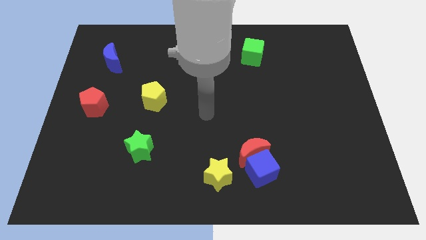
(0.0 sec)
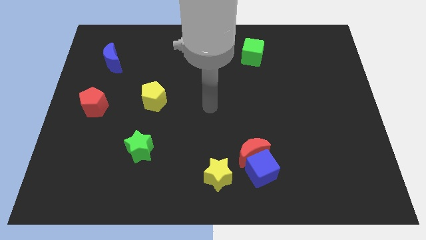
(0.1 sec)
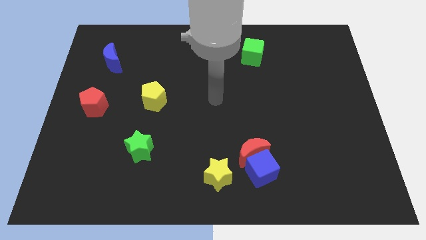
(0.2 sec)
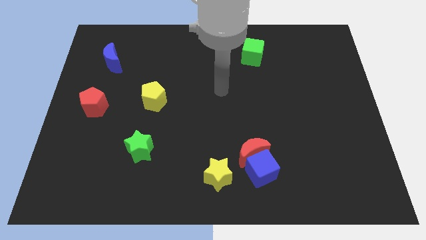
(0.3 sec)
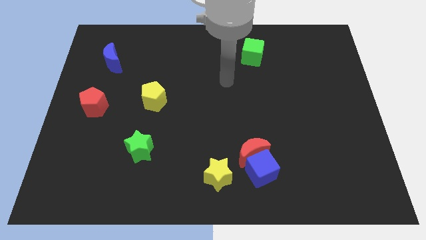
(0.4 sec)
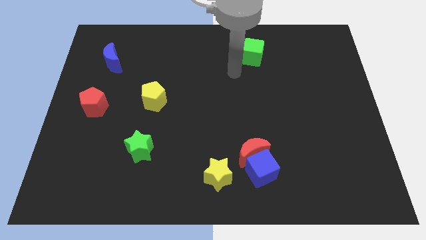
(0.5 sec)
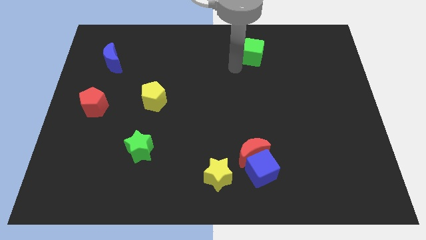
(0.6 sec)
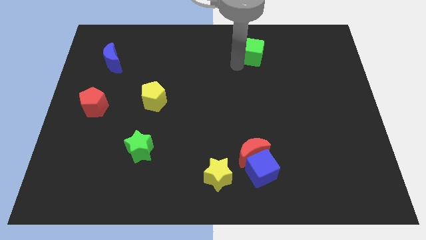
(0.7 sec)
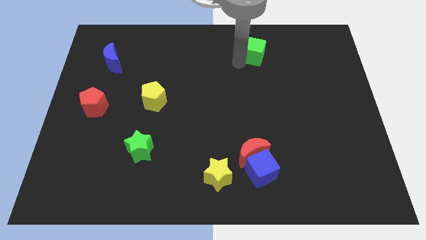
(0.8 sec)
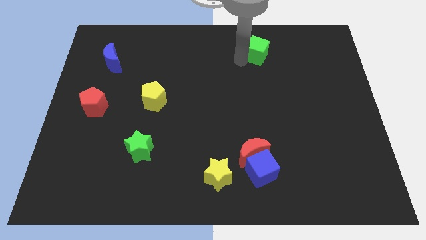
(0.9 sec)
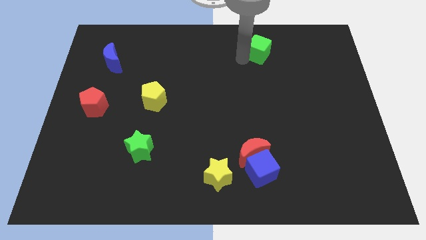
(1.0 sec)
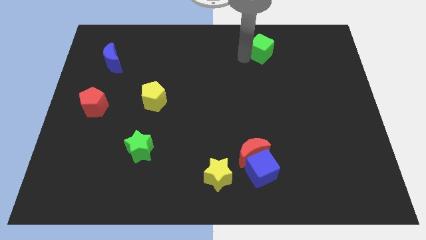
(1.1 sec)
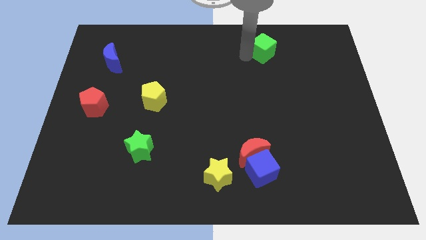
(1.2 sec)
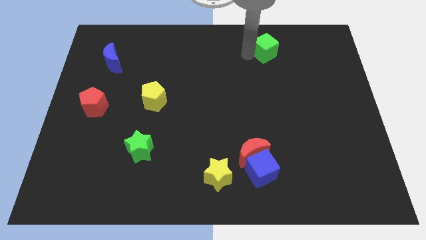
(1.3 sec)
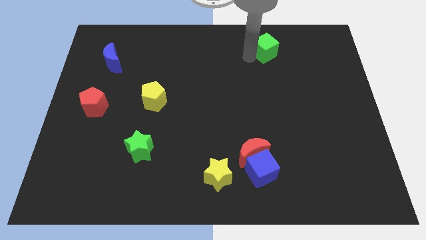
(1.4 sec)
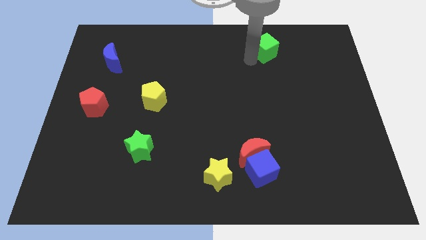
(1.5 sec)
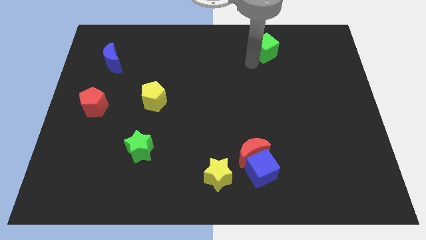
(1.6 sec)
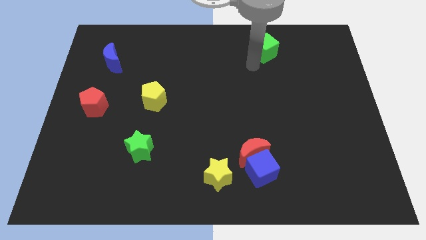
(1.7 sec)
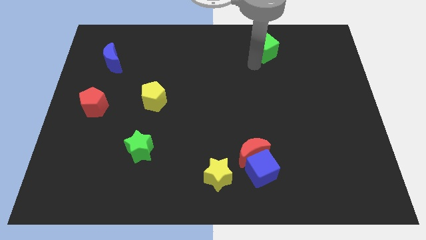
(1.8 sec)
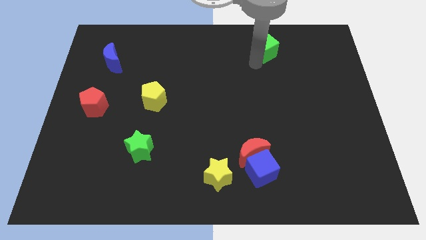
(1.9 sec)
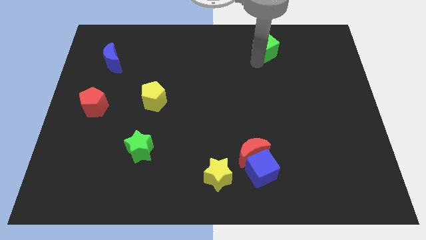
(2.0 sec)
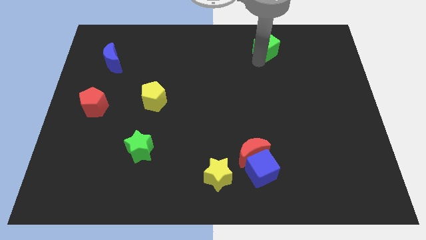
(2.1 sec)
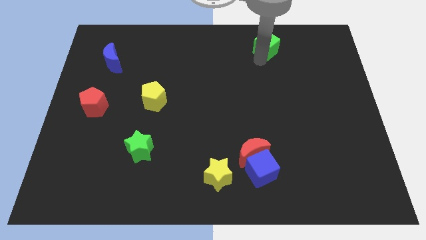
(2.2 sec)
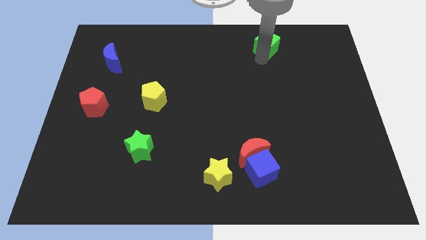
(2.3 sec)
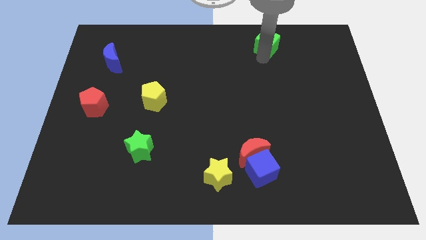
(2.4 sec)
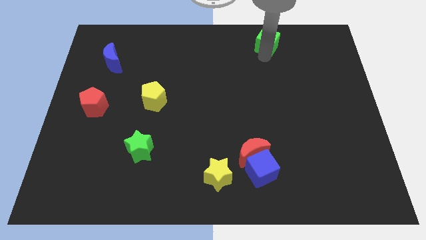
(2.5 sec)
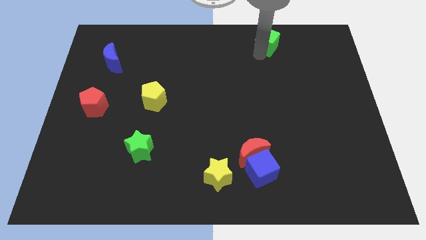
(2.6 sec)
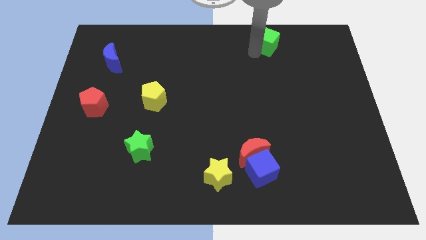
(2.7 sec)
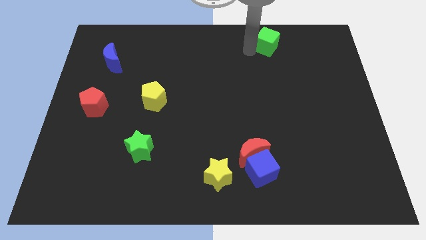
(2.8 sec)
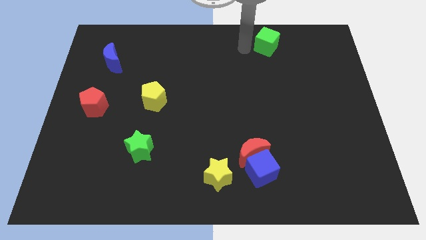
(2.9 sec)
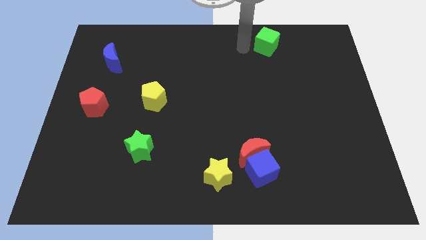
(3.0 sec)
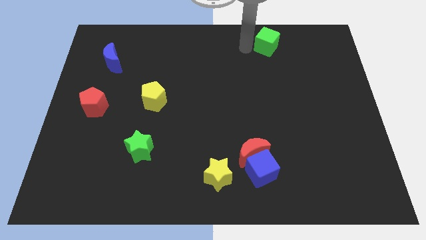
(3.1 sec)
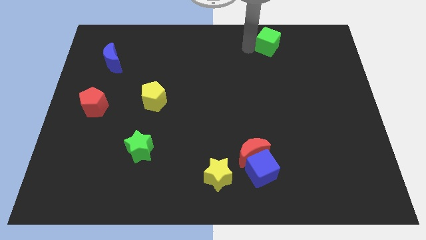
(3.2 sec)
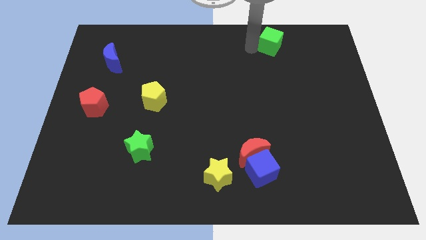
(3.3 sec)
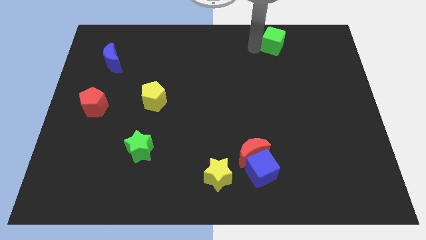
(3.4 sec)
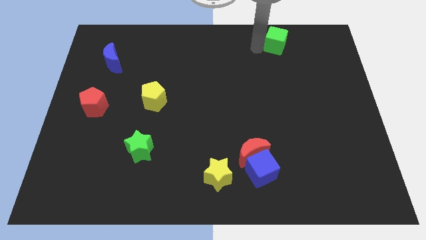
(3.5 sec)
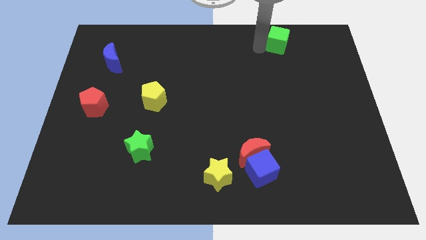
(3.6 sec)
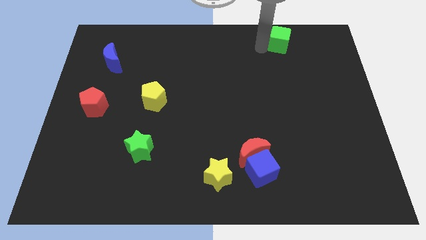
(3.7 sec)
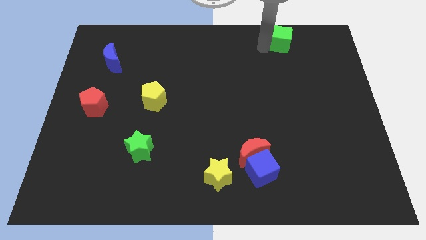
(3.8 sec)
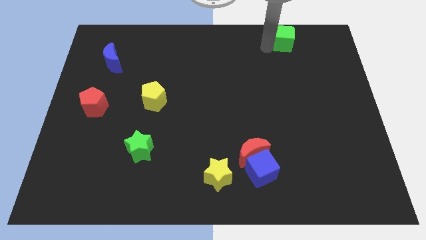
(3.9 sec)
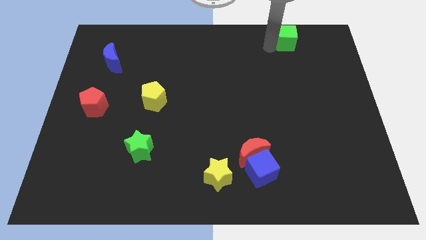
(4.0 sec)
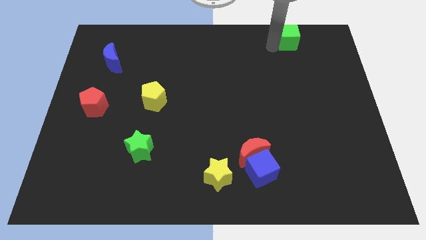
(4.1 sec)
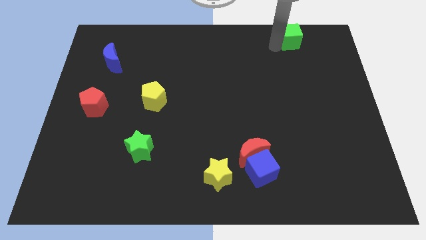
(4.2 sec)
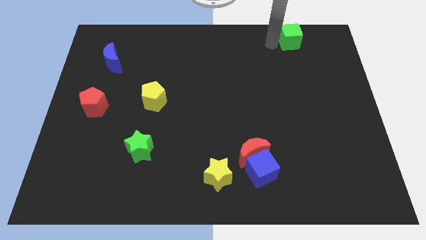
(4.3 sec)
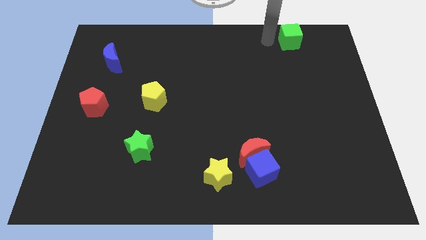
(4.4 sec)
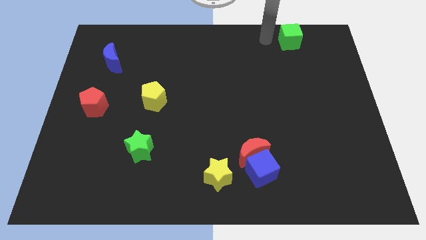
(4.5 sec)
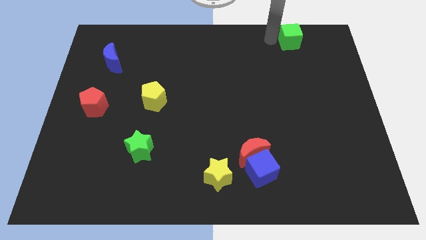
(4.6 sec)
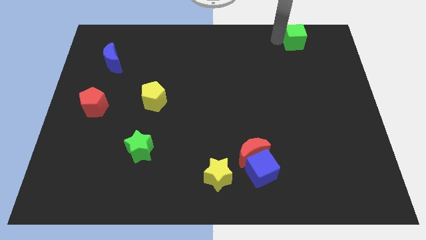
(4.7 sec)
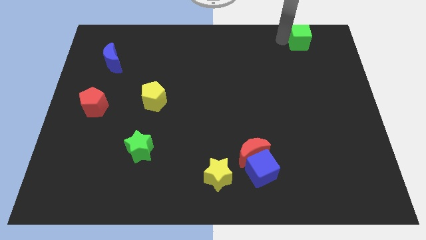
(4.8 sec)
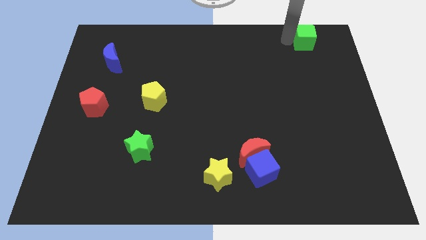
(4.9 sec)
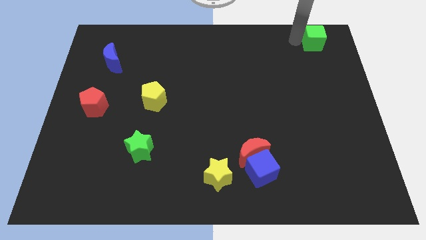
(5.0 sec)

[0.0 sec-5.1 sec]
push the green cube to the upper right corner

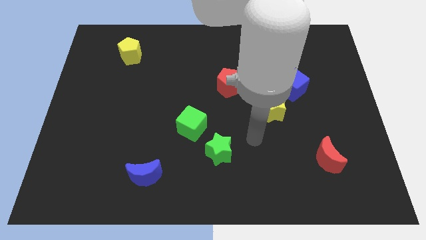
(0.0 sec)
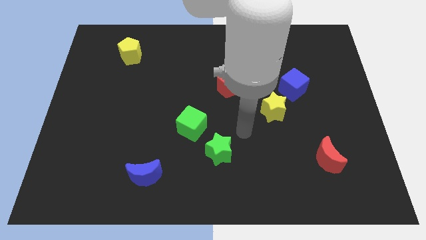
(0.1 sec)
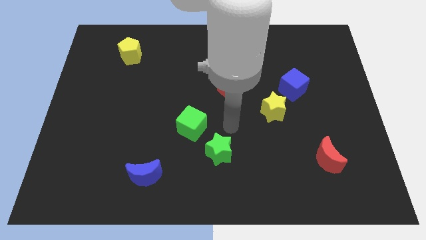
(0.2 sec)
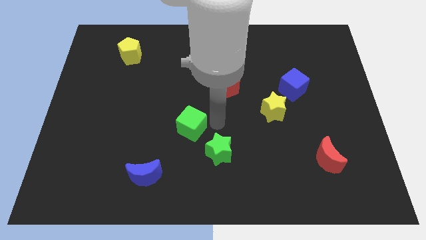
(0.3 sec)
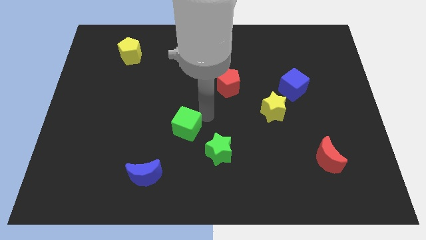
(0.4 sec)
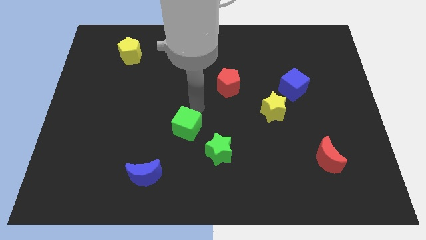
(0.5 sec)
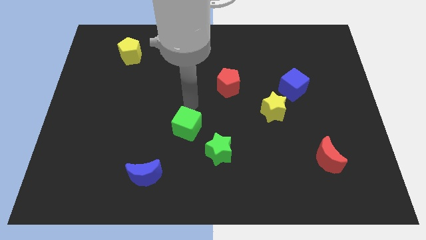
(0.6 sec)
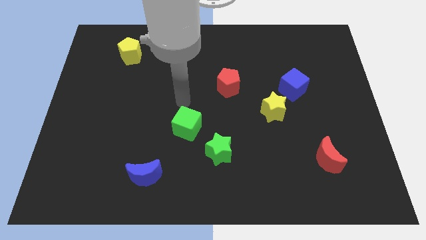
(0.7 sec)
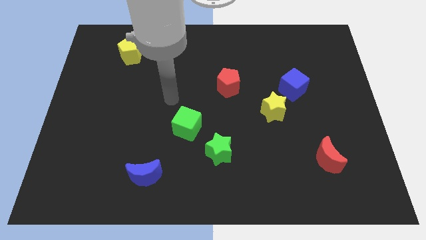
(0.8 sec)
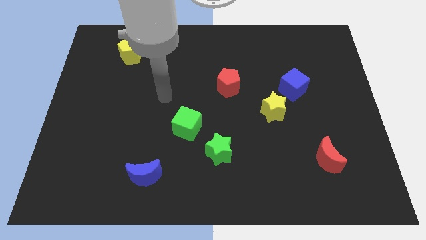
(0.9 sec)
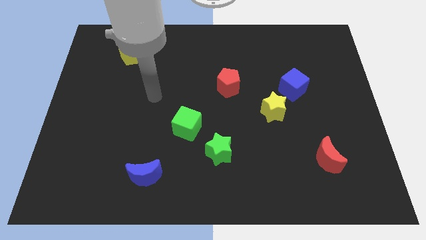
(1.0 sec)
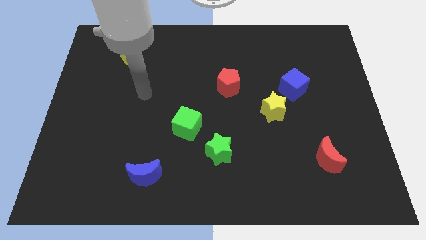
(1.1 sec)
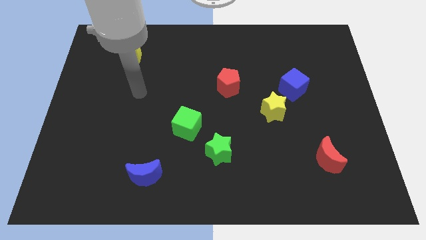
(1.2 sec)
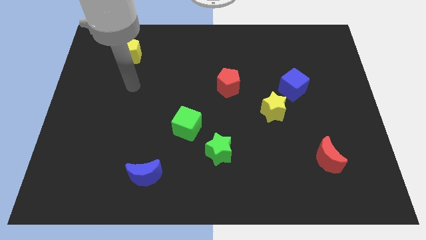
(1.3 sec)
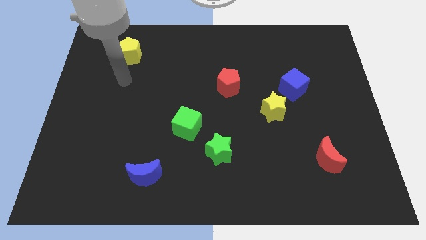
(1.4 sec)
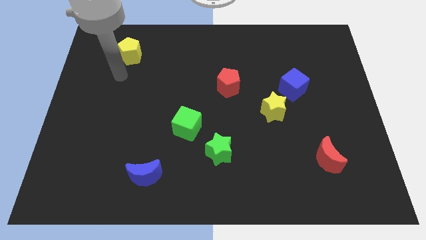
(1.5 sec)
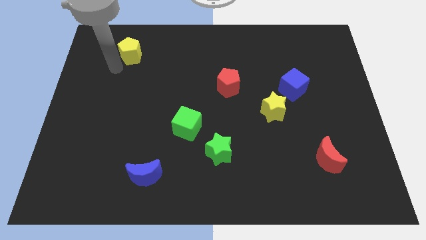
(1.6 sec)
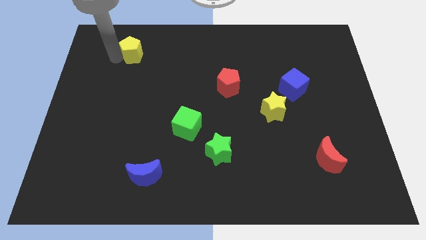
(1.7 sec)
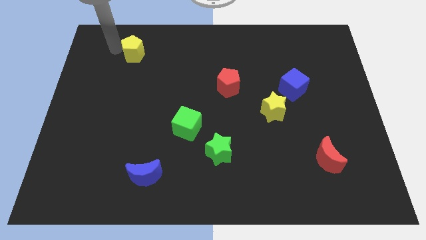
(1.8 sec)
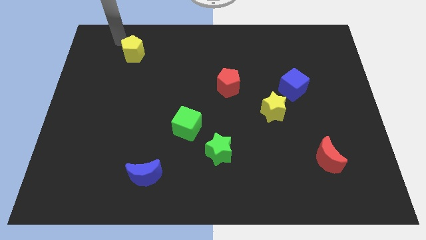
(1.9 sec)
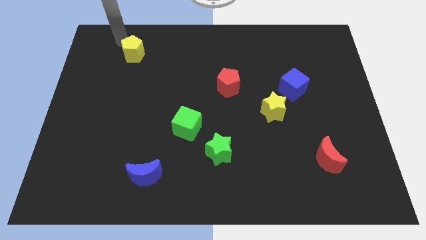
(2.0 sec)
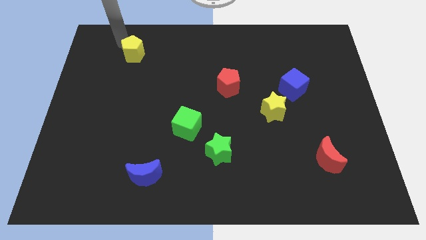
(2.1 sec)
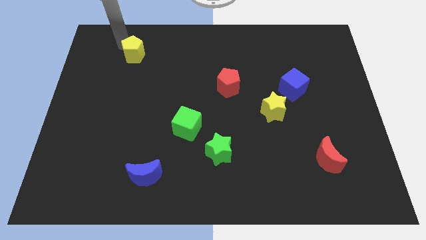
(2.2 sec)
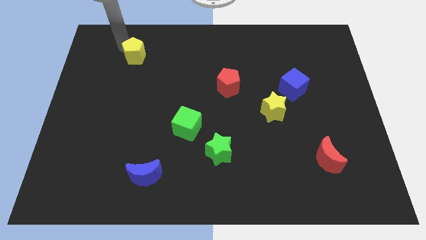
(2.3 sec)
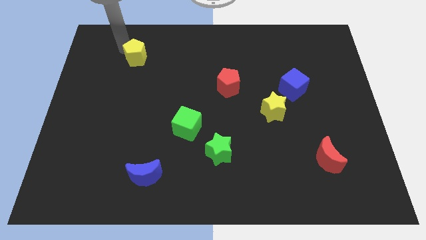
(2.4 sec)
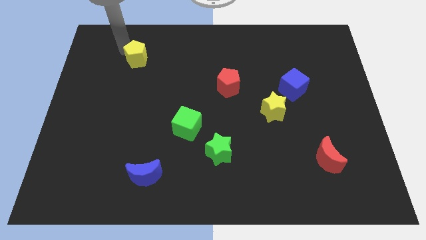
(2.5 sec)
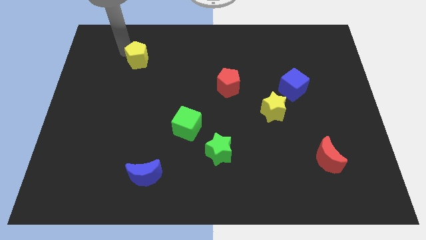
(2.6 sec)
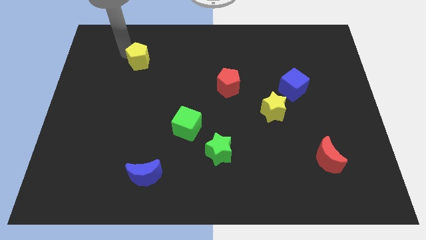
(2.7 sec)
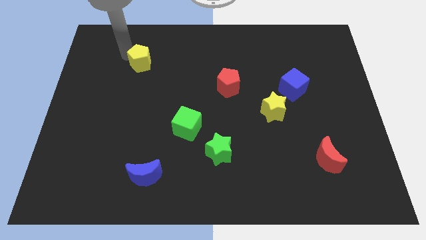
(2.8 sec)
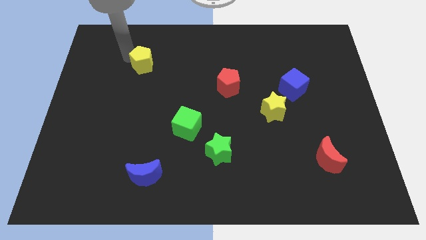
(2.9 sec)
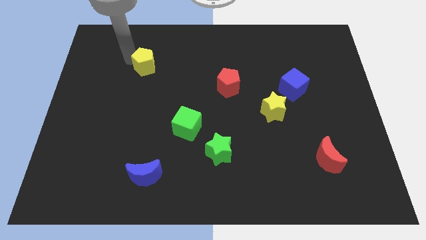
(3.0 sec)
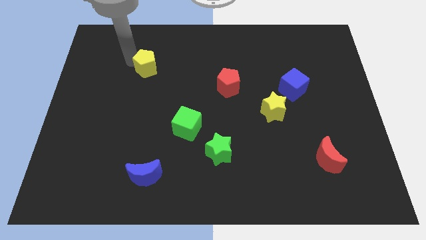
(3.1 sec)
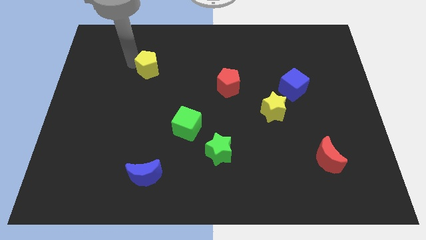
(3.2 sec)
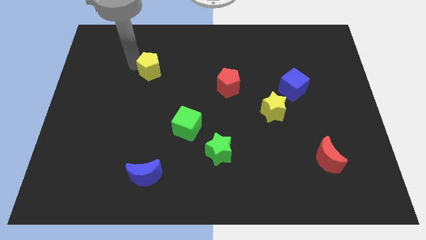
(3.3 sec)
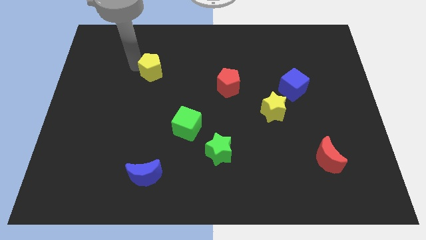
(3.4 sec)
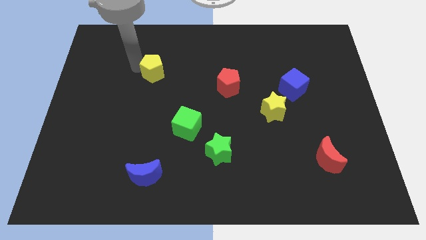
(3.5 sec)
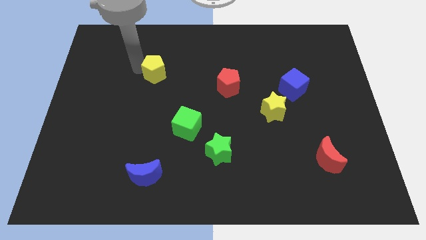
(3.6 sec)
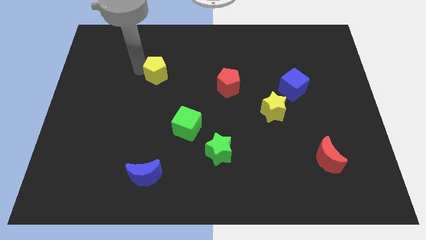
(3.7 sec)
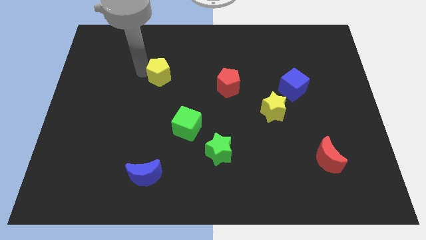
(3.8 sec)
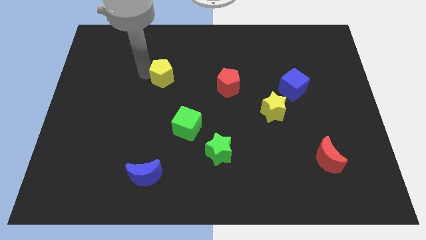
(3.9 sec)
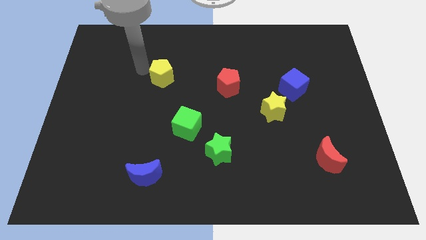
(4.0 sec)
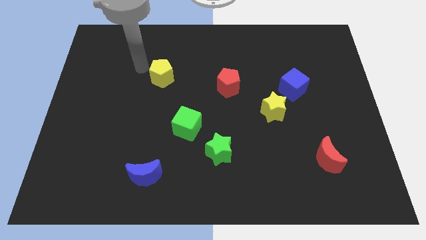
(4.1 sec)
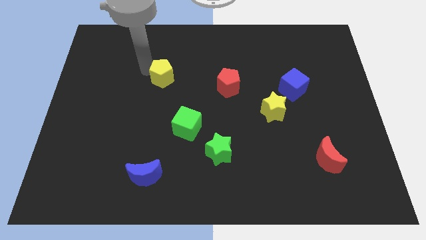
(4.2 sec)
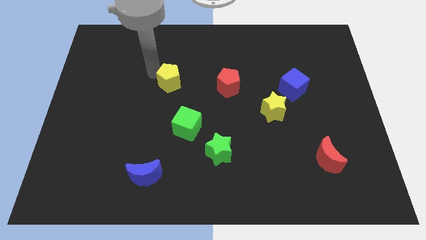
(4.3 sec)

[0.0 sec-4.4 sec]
move the yellow pentagon to the center of the board
